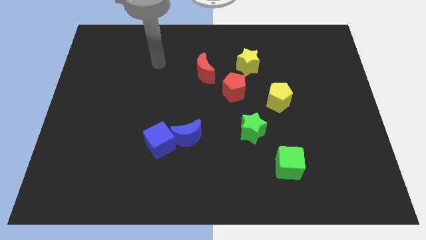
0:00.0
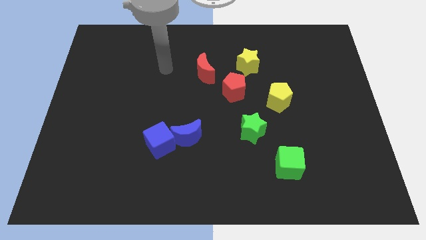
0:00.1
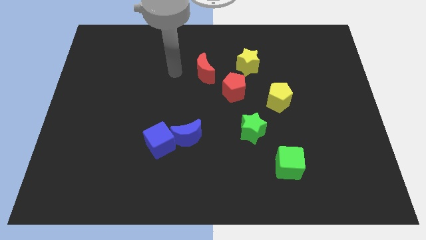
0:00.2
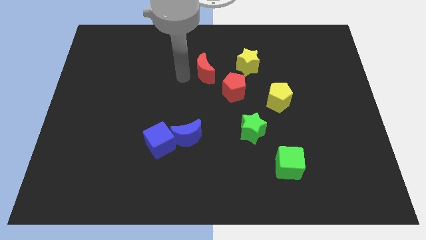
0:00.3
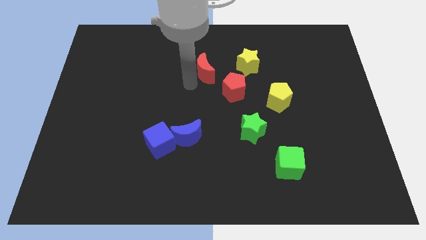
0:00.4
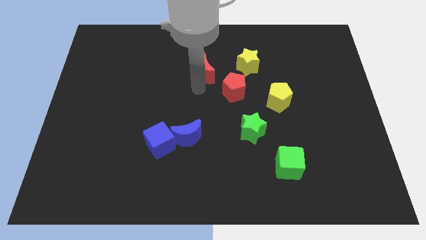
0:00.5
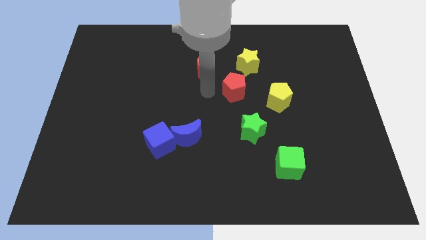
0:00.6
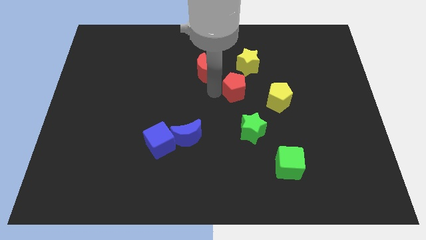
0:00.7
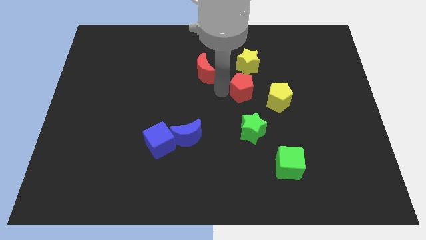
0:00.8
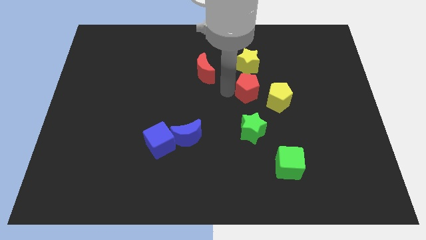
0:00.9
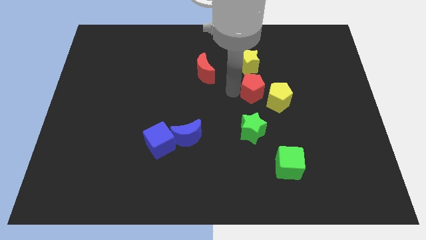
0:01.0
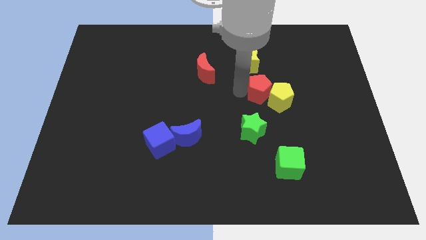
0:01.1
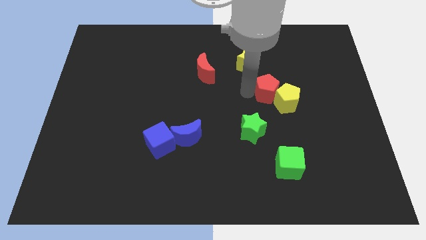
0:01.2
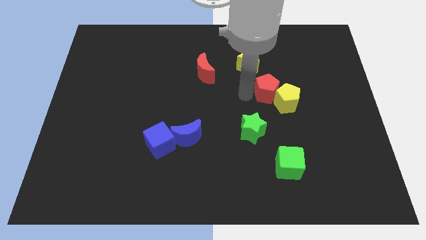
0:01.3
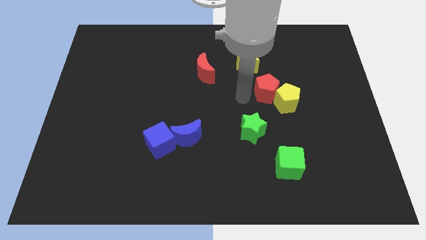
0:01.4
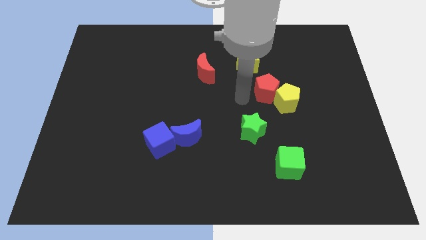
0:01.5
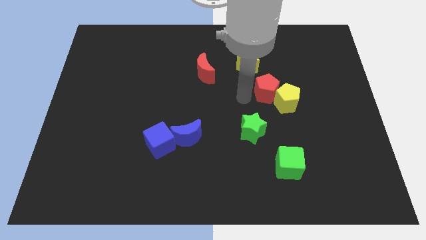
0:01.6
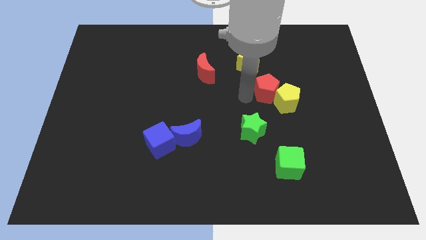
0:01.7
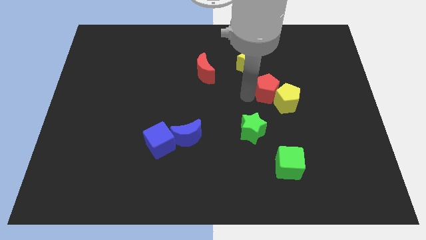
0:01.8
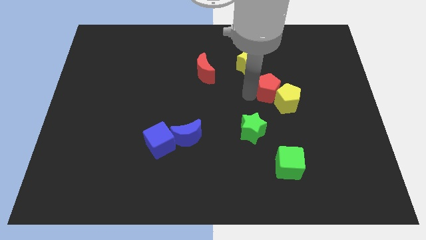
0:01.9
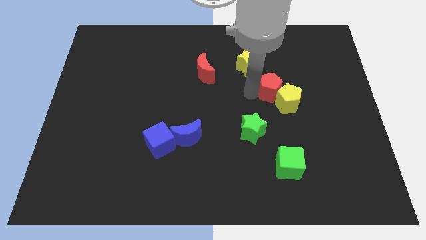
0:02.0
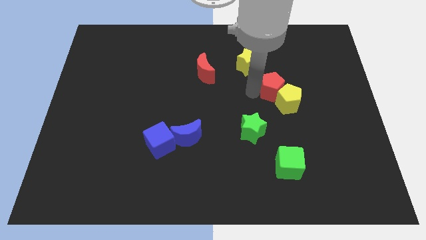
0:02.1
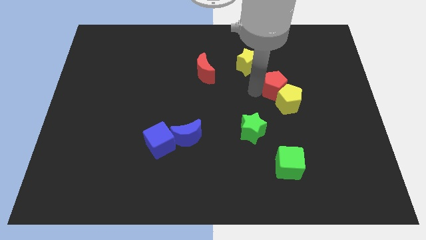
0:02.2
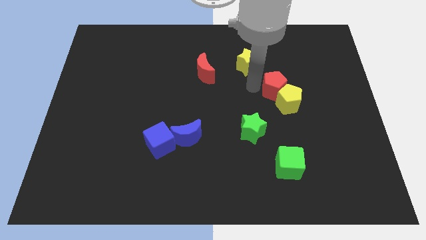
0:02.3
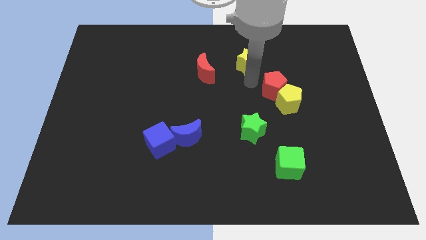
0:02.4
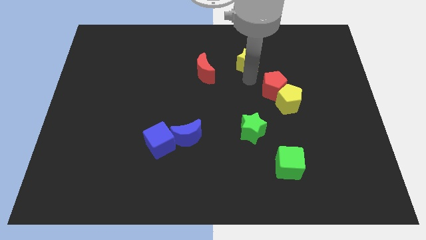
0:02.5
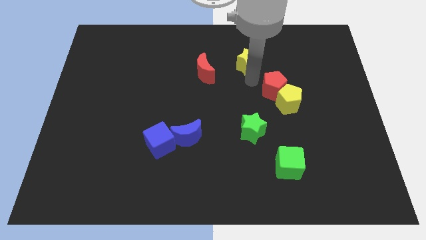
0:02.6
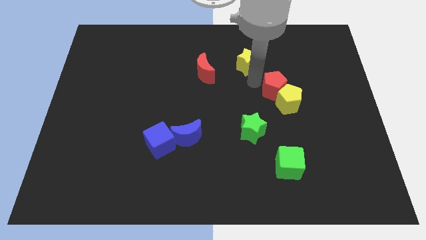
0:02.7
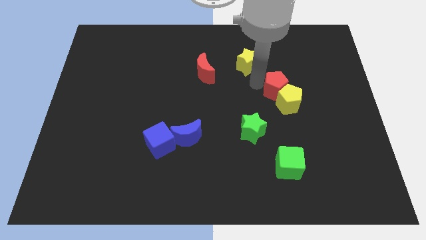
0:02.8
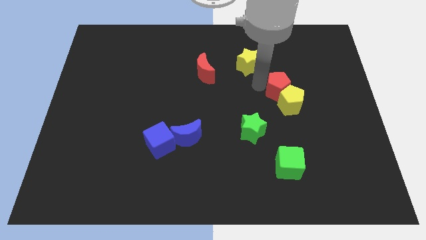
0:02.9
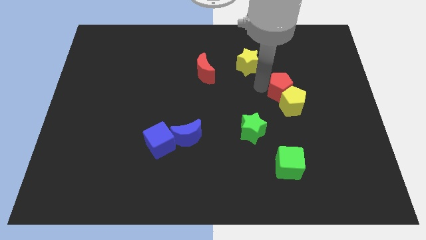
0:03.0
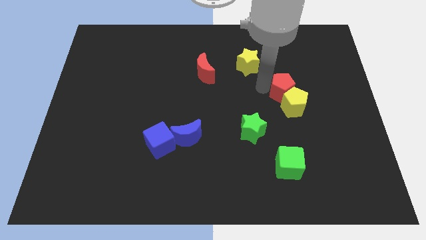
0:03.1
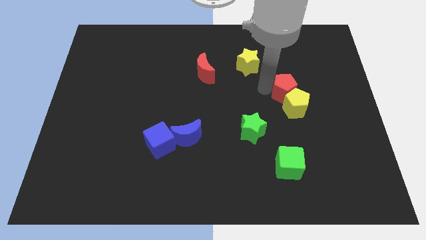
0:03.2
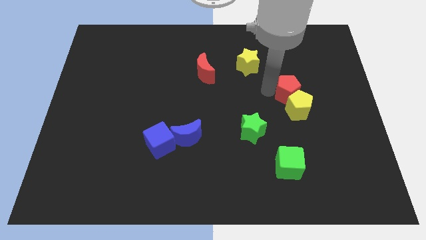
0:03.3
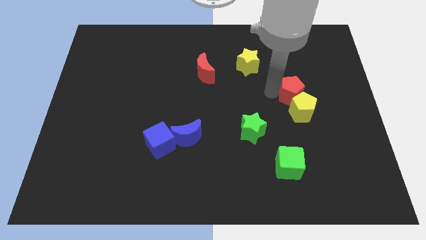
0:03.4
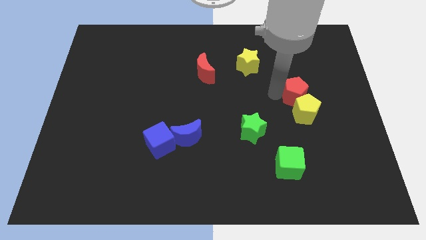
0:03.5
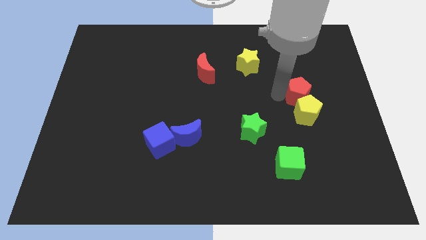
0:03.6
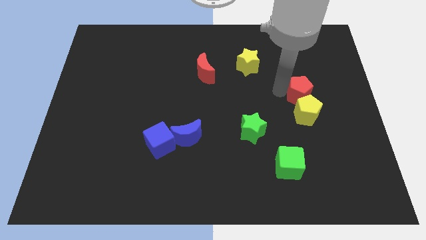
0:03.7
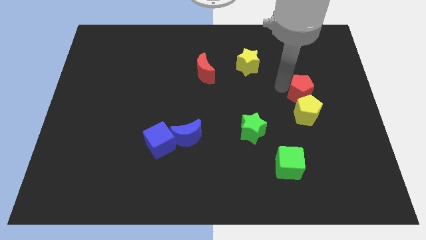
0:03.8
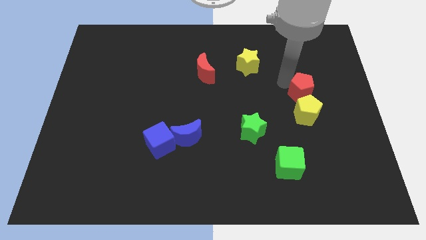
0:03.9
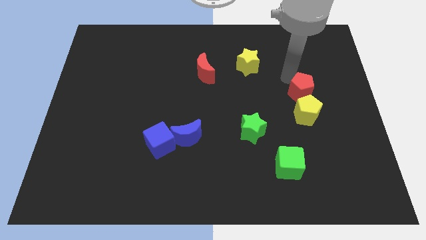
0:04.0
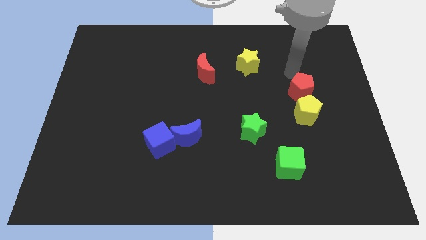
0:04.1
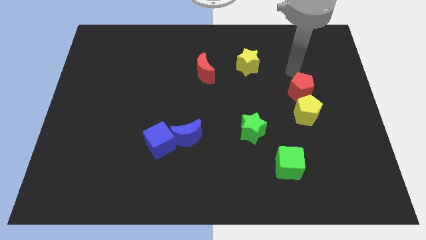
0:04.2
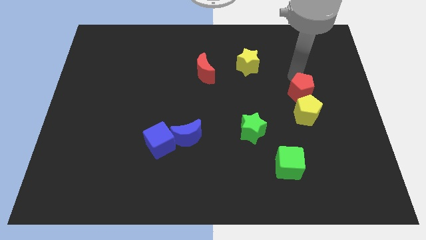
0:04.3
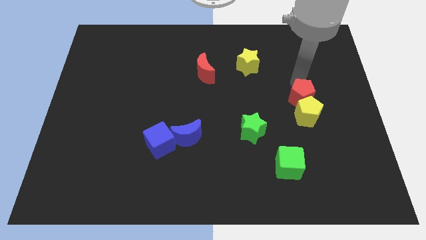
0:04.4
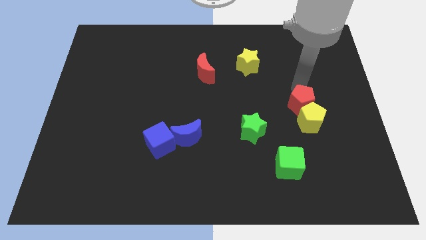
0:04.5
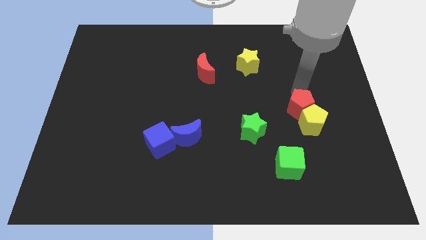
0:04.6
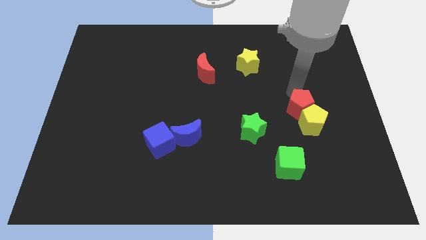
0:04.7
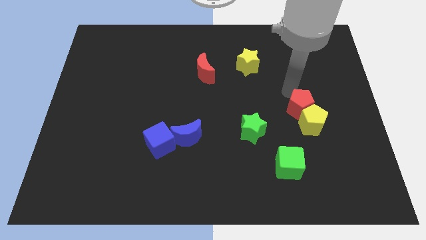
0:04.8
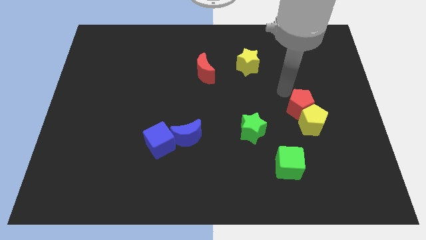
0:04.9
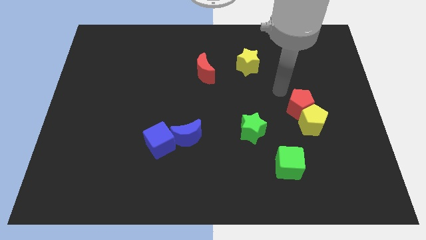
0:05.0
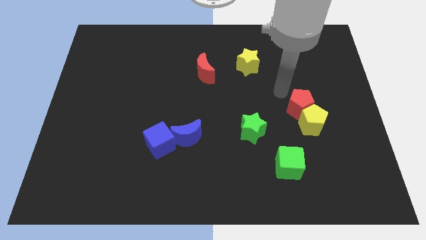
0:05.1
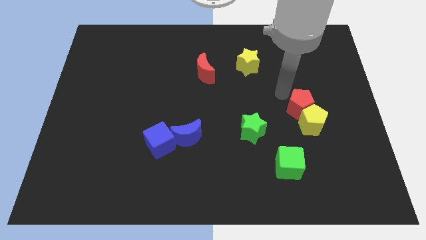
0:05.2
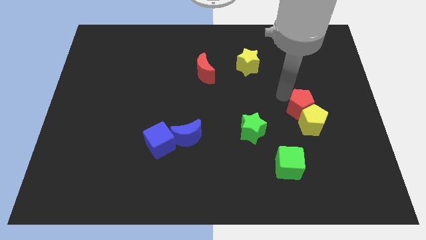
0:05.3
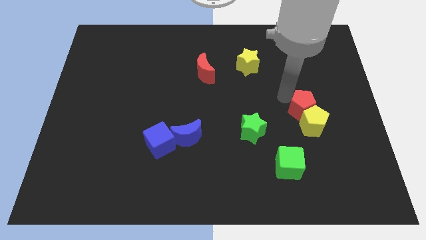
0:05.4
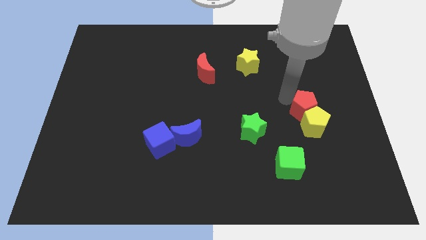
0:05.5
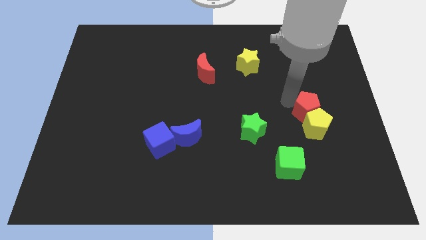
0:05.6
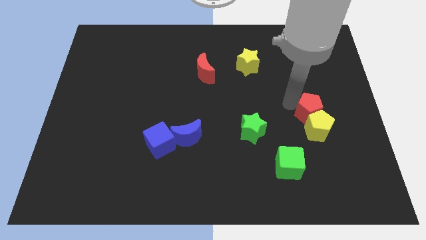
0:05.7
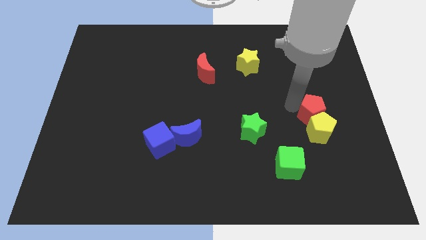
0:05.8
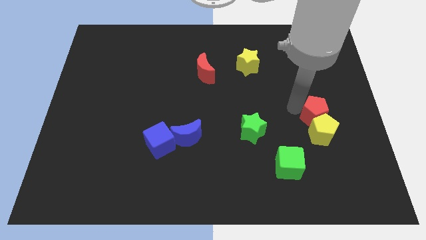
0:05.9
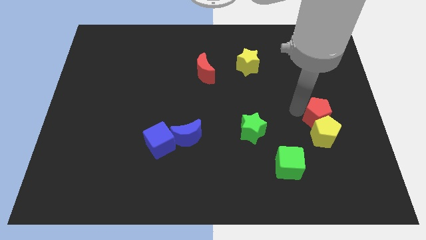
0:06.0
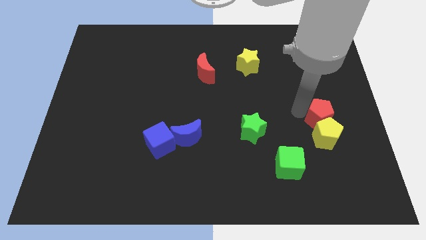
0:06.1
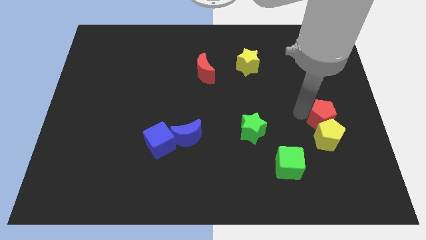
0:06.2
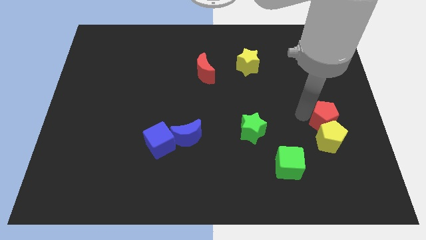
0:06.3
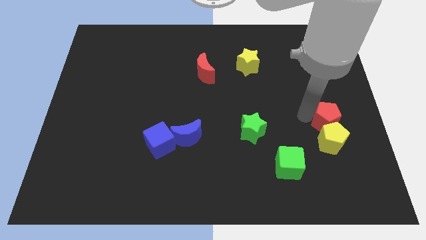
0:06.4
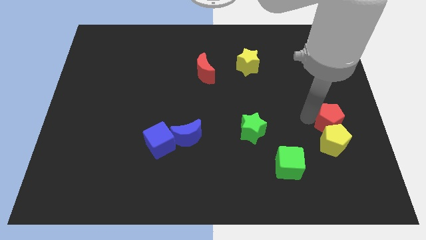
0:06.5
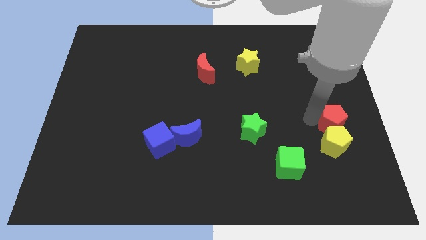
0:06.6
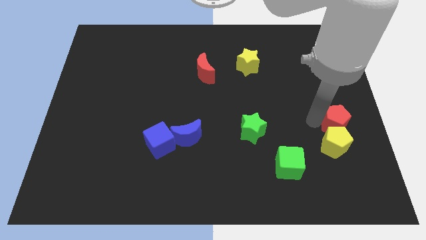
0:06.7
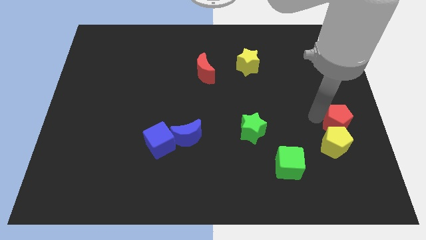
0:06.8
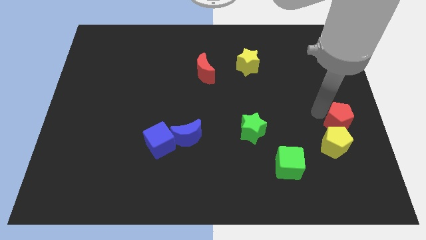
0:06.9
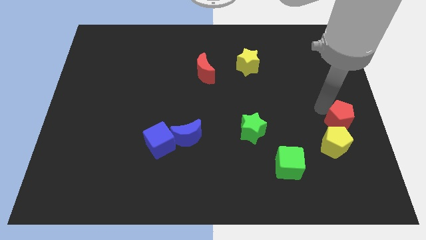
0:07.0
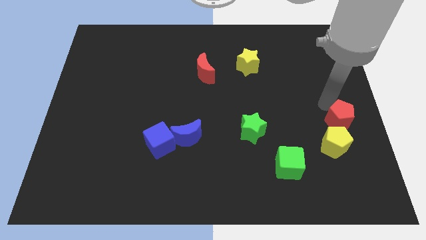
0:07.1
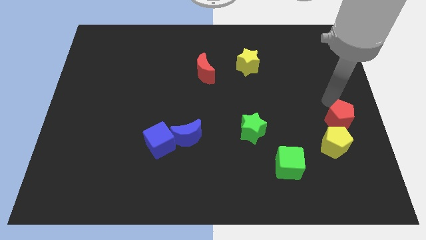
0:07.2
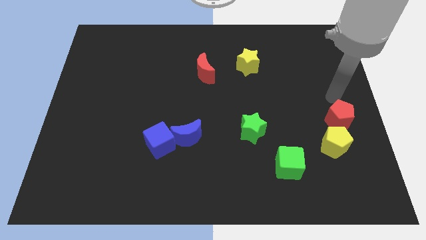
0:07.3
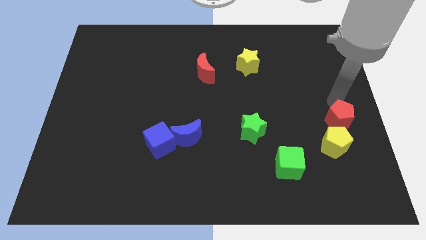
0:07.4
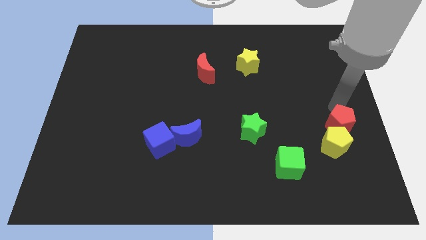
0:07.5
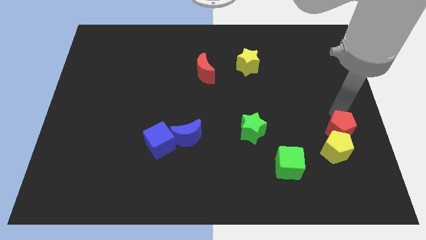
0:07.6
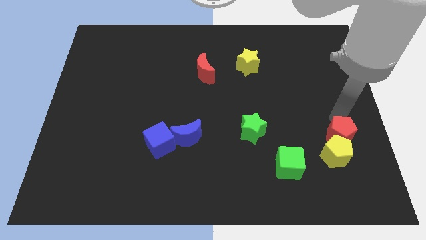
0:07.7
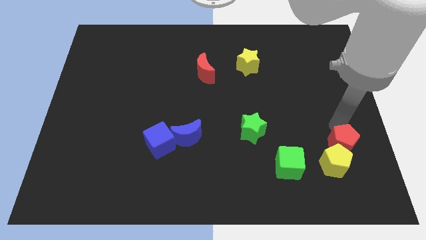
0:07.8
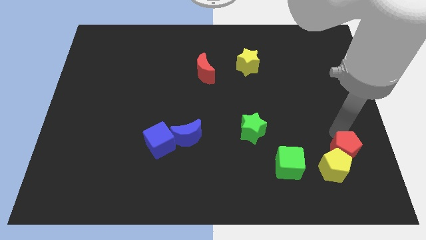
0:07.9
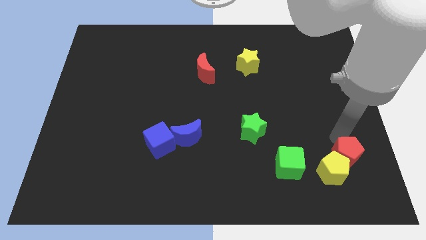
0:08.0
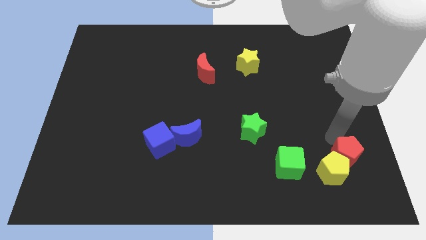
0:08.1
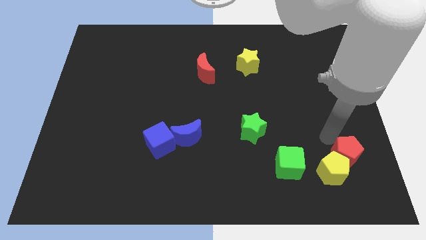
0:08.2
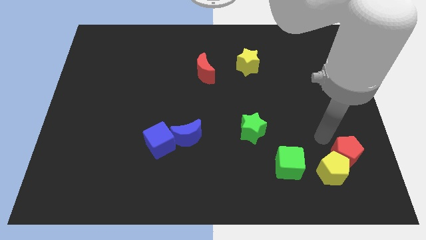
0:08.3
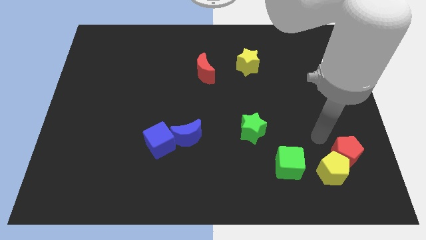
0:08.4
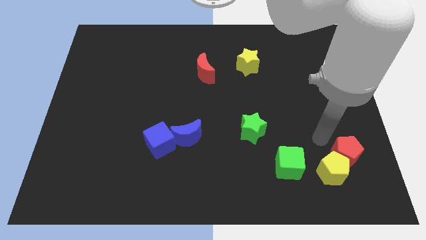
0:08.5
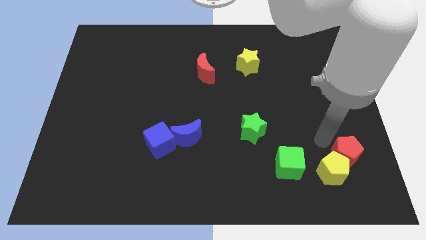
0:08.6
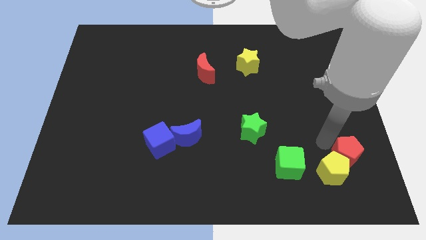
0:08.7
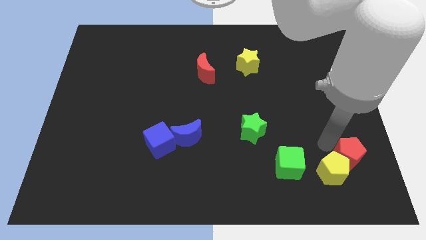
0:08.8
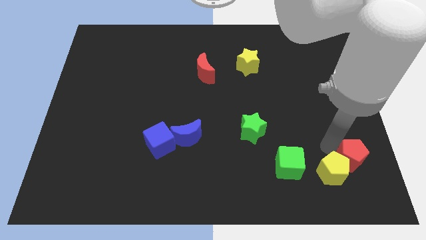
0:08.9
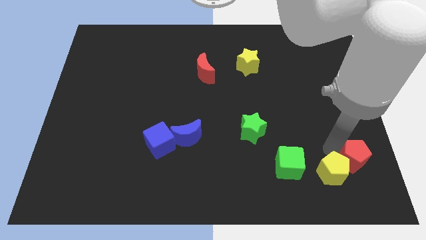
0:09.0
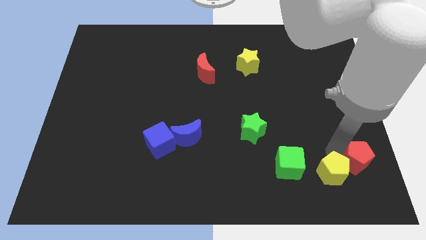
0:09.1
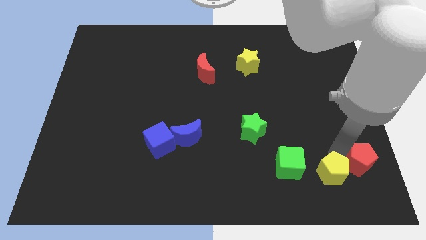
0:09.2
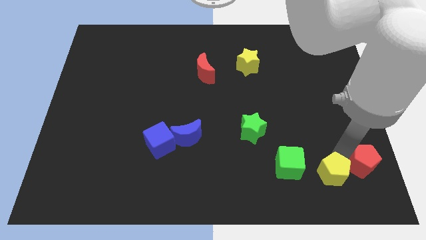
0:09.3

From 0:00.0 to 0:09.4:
put the red pentagon to the bottom right of the board
